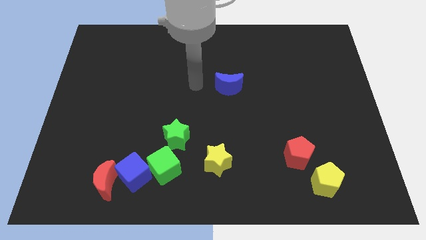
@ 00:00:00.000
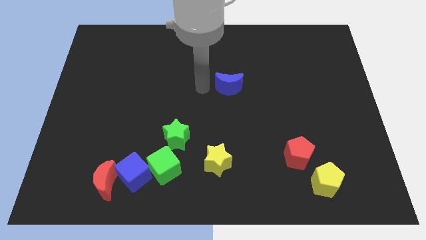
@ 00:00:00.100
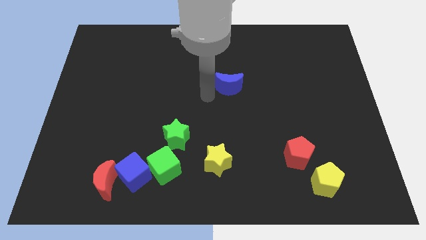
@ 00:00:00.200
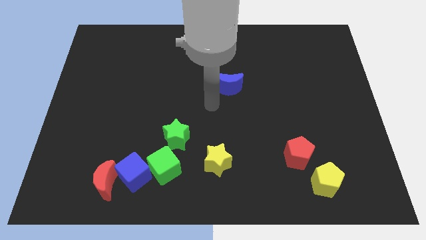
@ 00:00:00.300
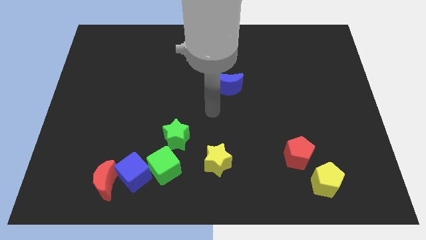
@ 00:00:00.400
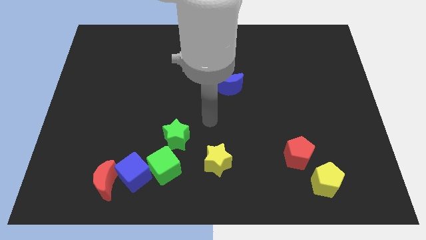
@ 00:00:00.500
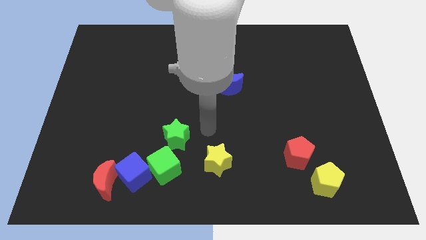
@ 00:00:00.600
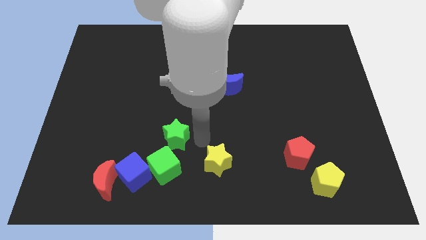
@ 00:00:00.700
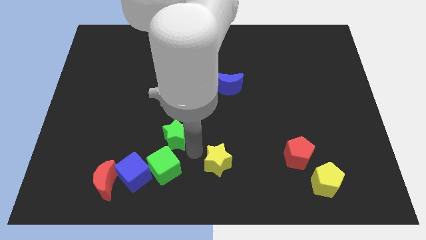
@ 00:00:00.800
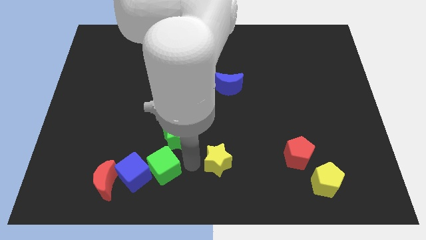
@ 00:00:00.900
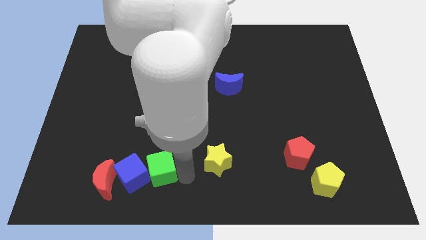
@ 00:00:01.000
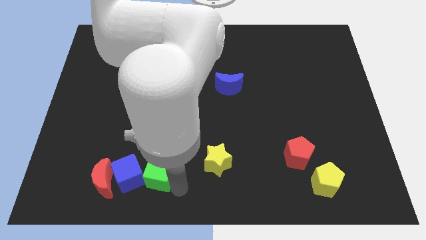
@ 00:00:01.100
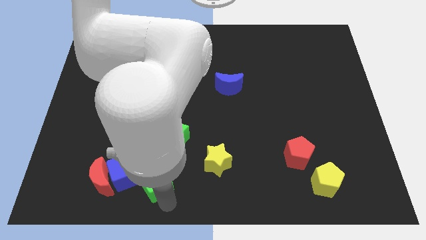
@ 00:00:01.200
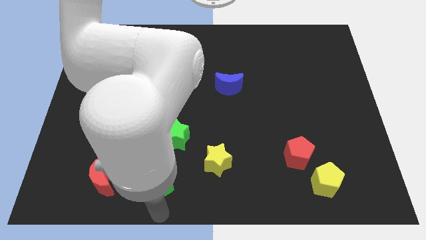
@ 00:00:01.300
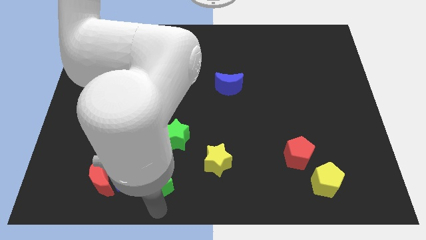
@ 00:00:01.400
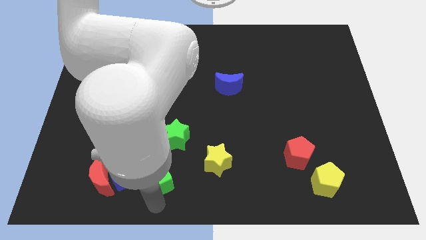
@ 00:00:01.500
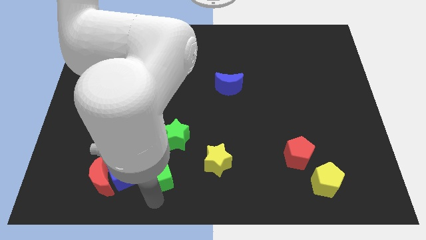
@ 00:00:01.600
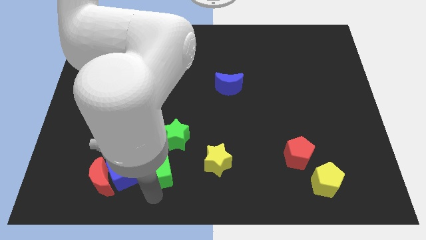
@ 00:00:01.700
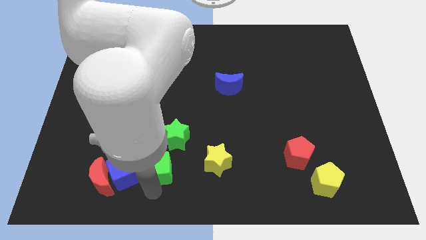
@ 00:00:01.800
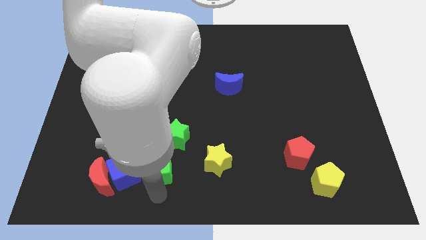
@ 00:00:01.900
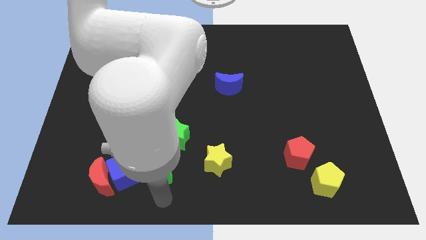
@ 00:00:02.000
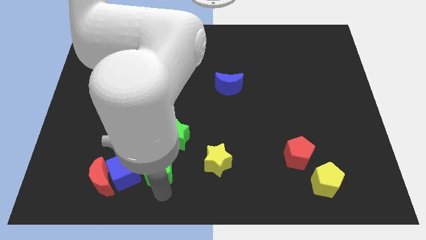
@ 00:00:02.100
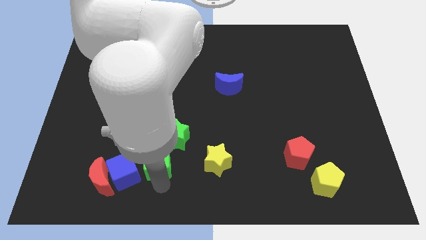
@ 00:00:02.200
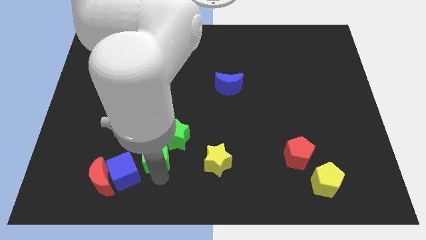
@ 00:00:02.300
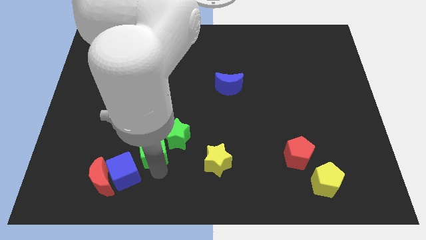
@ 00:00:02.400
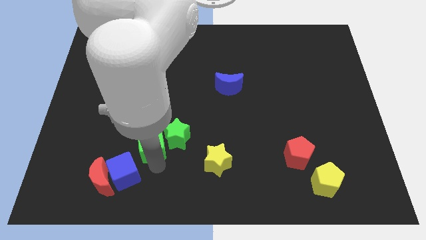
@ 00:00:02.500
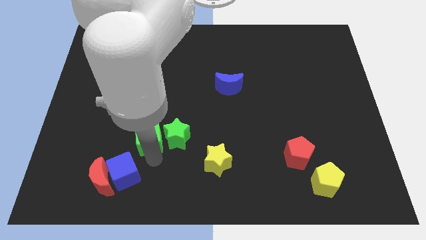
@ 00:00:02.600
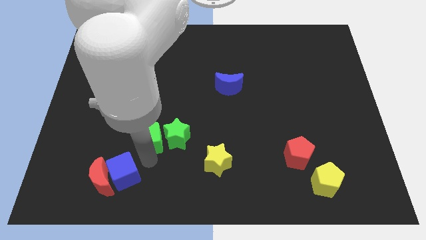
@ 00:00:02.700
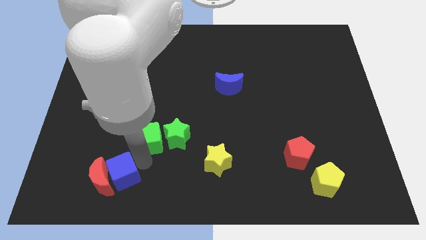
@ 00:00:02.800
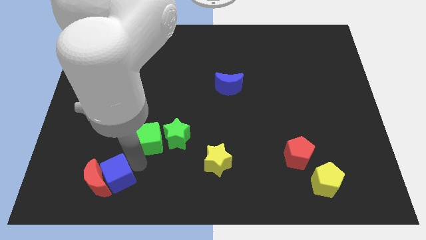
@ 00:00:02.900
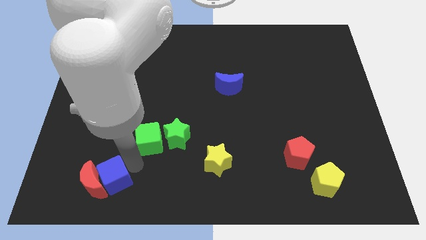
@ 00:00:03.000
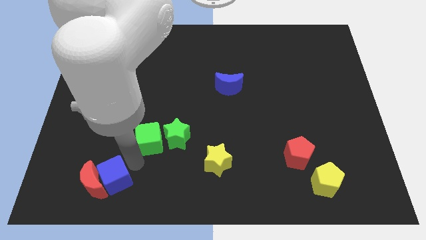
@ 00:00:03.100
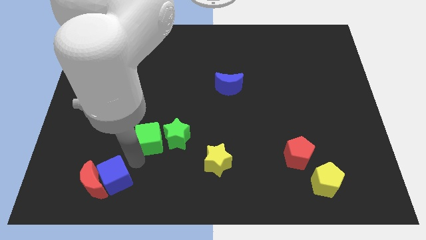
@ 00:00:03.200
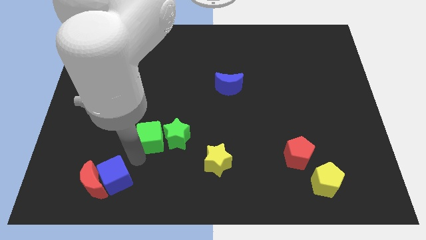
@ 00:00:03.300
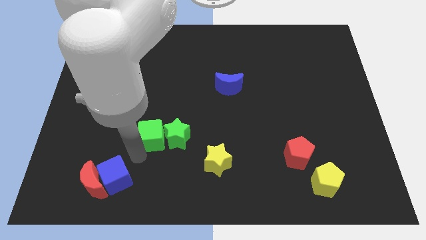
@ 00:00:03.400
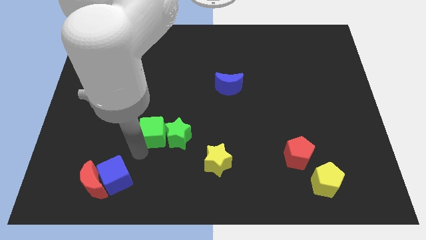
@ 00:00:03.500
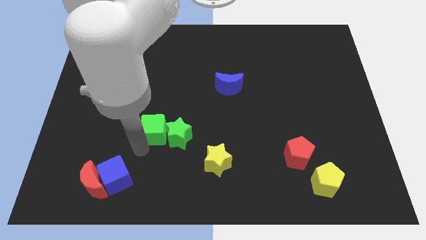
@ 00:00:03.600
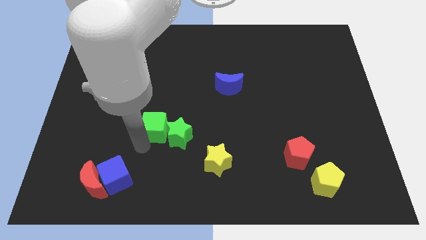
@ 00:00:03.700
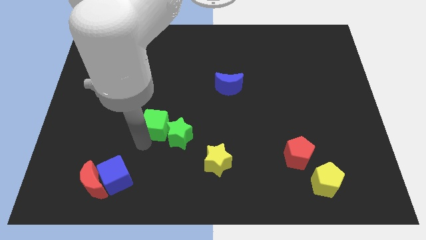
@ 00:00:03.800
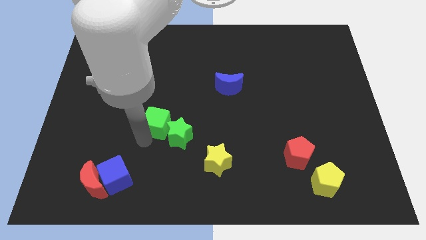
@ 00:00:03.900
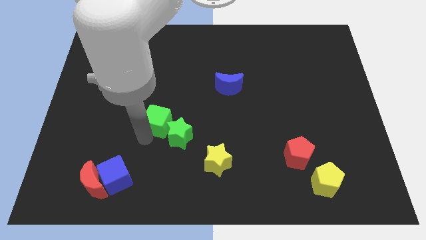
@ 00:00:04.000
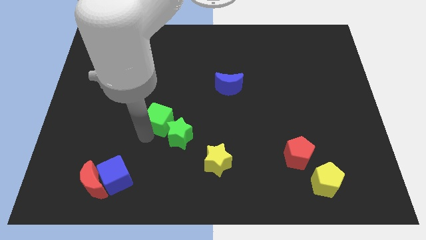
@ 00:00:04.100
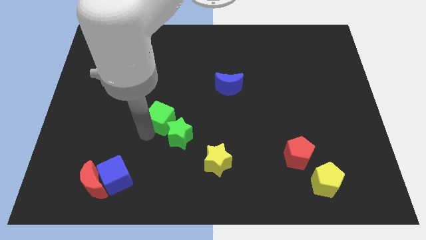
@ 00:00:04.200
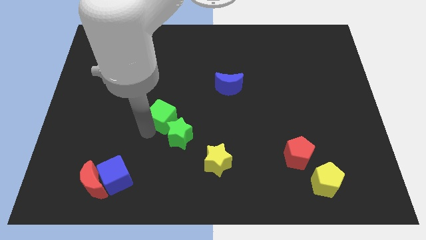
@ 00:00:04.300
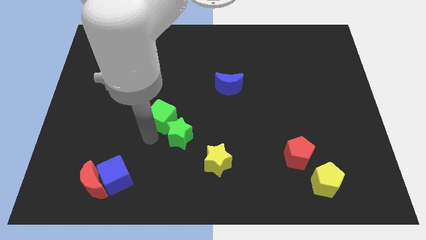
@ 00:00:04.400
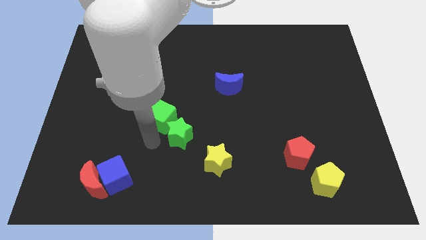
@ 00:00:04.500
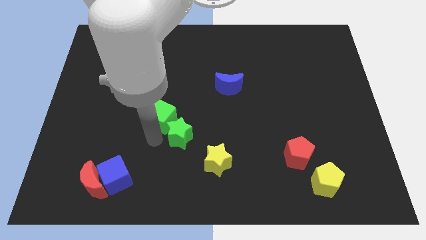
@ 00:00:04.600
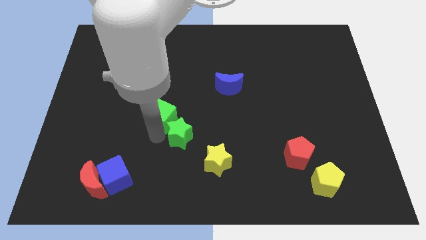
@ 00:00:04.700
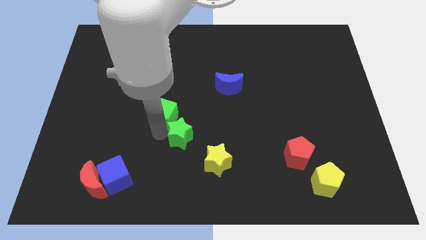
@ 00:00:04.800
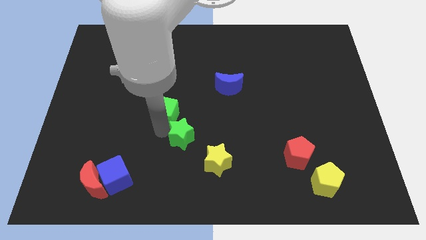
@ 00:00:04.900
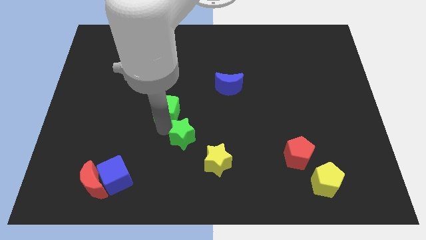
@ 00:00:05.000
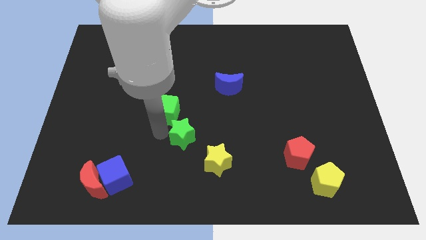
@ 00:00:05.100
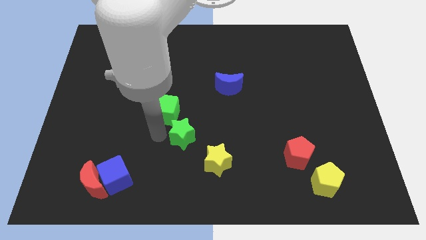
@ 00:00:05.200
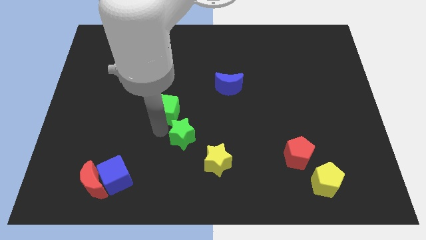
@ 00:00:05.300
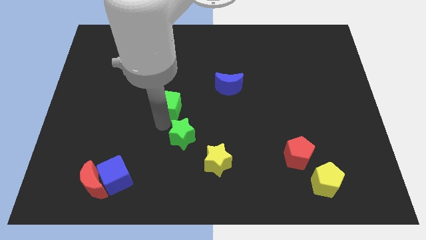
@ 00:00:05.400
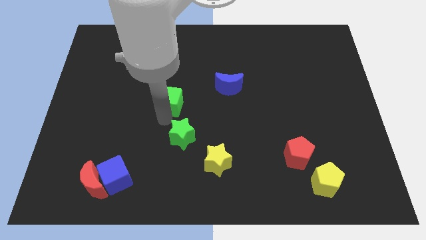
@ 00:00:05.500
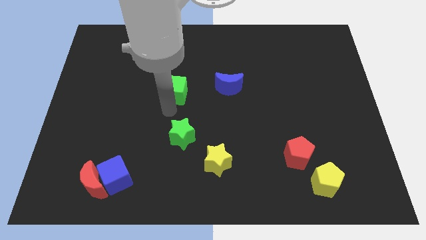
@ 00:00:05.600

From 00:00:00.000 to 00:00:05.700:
push the green cube upwards

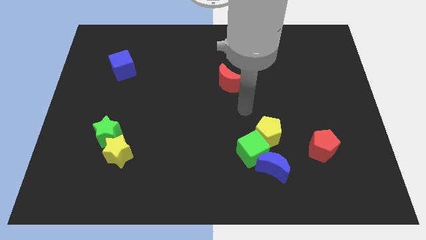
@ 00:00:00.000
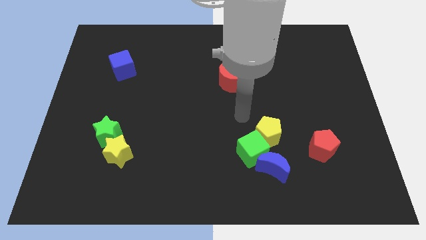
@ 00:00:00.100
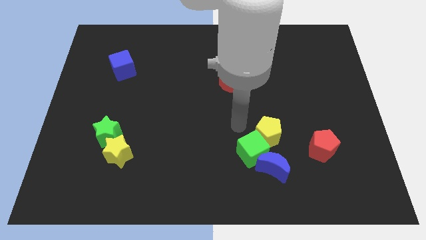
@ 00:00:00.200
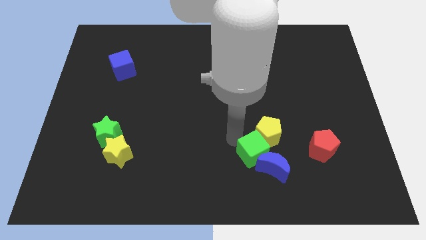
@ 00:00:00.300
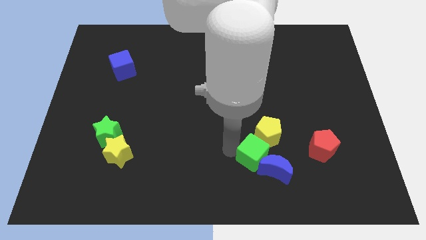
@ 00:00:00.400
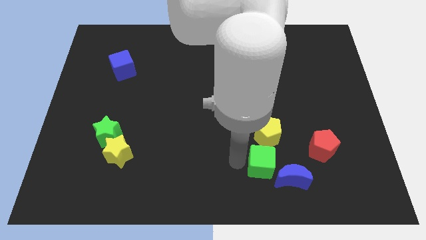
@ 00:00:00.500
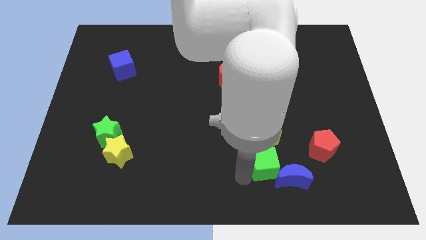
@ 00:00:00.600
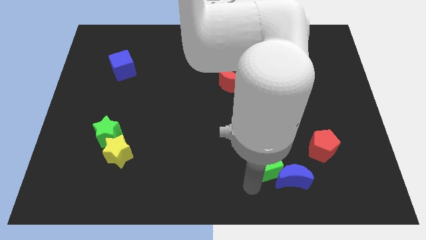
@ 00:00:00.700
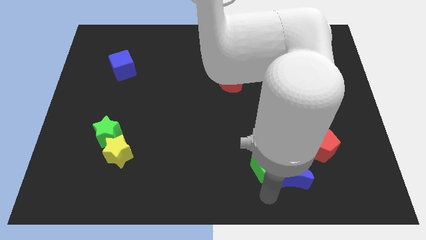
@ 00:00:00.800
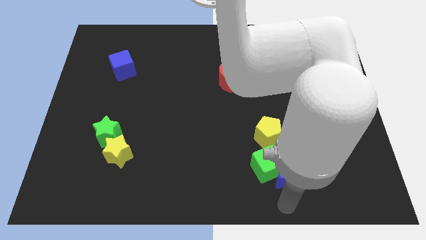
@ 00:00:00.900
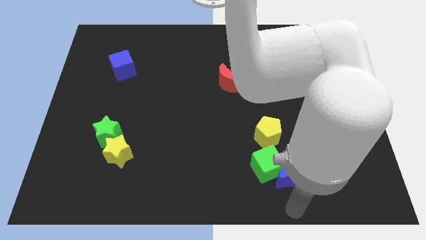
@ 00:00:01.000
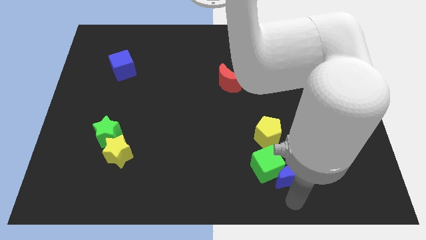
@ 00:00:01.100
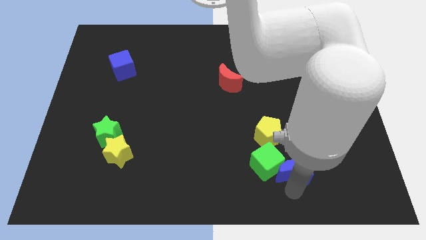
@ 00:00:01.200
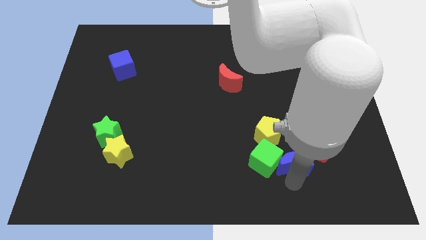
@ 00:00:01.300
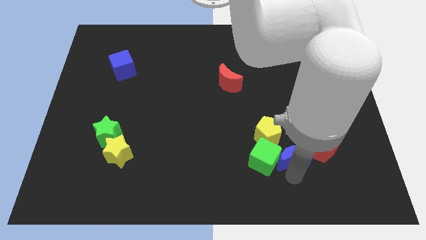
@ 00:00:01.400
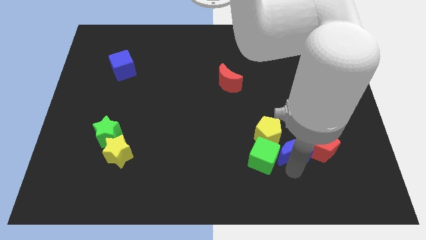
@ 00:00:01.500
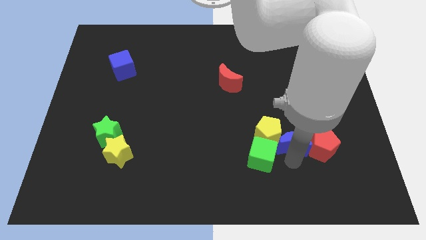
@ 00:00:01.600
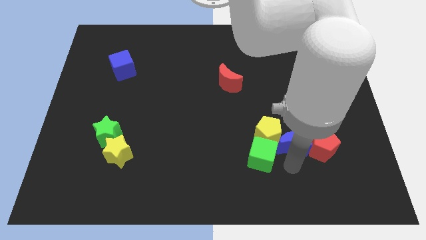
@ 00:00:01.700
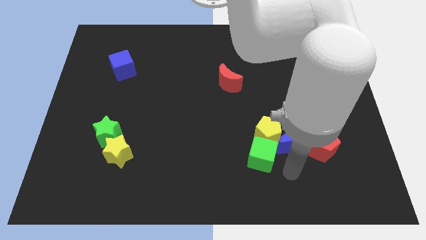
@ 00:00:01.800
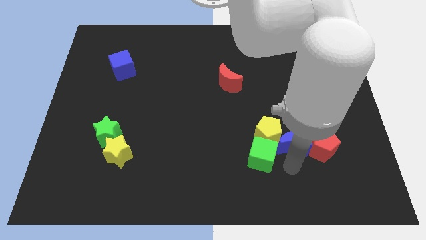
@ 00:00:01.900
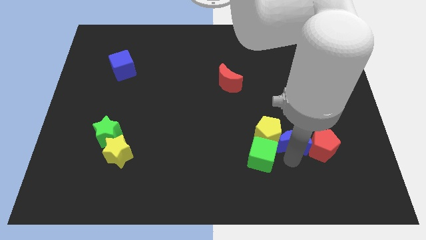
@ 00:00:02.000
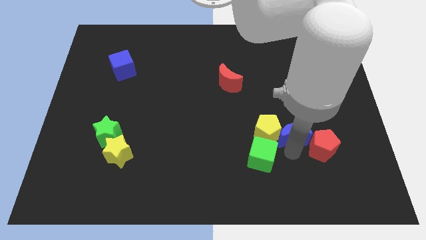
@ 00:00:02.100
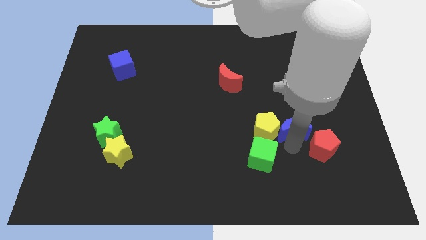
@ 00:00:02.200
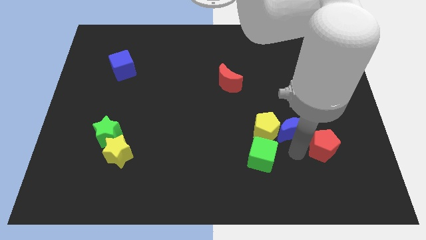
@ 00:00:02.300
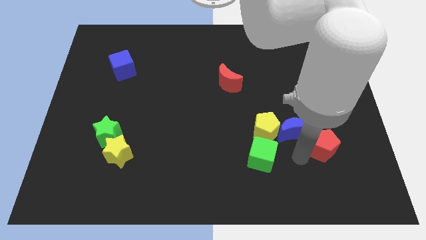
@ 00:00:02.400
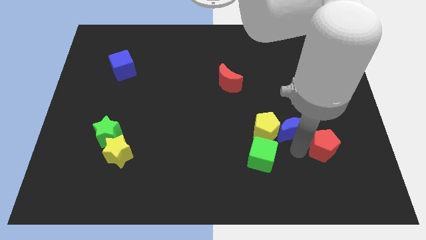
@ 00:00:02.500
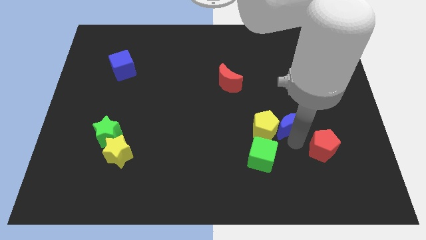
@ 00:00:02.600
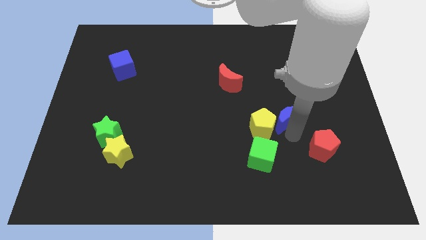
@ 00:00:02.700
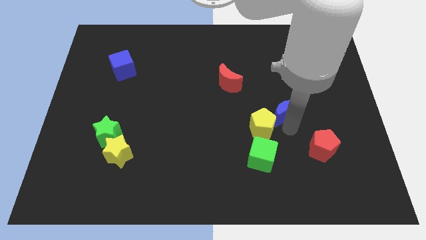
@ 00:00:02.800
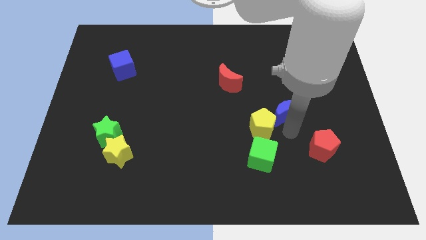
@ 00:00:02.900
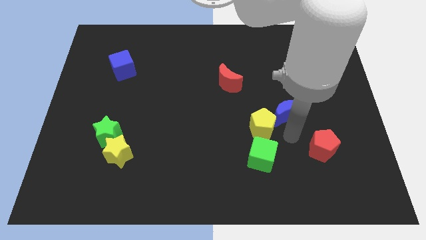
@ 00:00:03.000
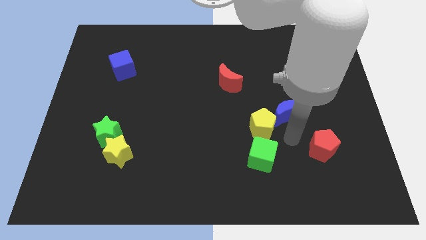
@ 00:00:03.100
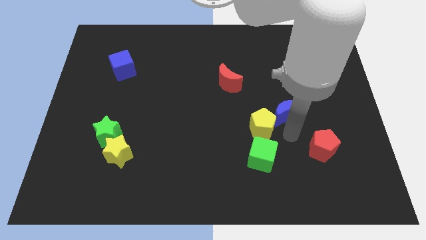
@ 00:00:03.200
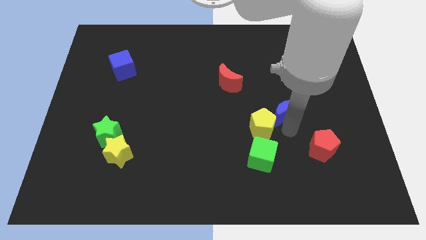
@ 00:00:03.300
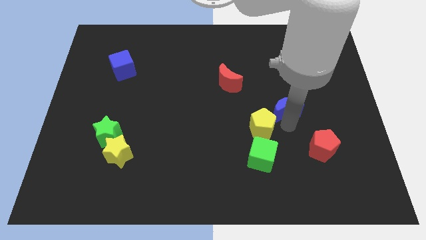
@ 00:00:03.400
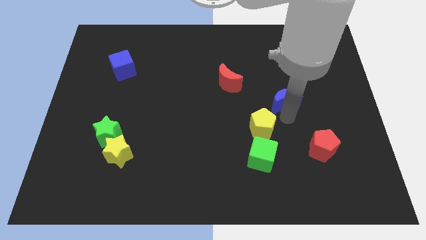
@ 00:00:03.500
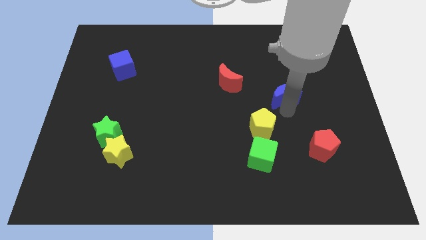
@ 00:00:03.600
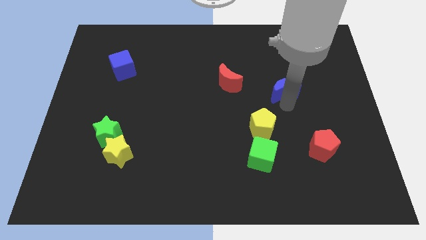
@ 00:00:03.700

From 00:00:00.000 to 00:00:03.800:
slide the blue moon upwards
